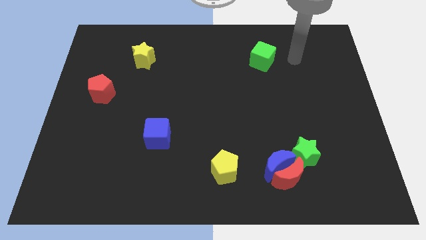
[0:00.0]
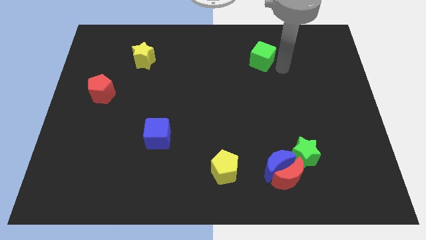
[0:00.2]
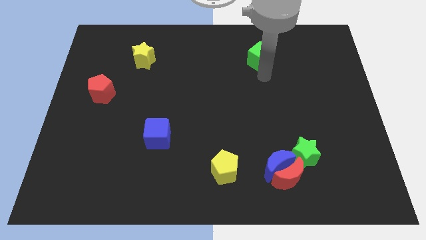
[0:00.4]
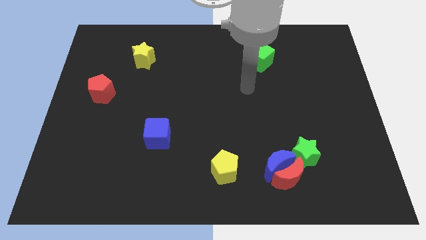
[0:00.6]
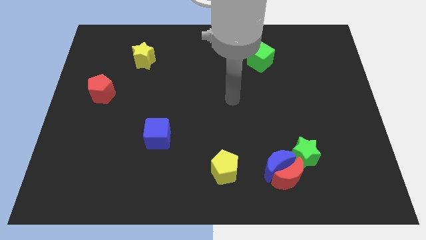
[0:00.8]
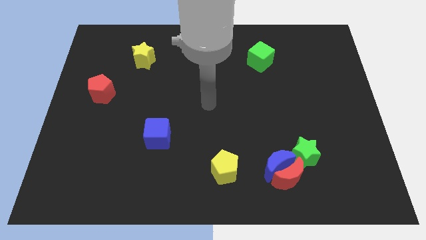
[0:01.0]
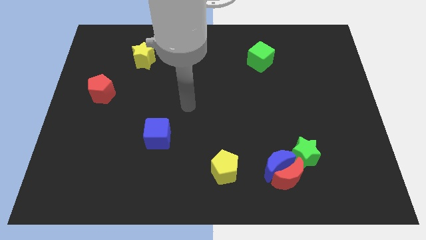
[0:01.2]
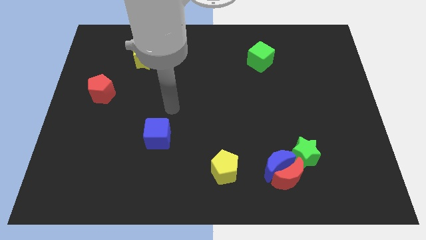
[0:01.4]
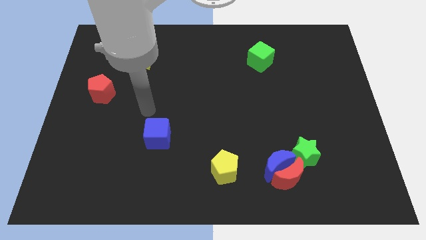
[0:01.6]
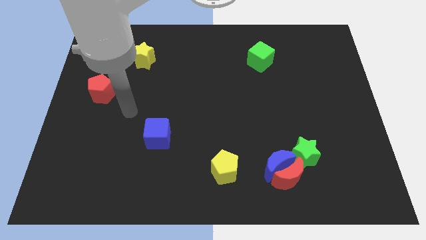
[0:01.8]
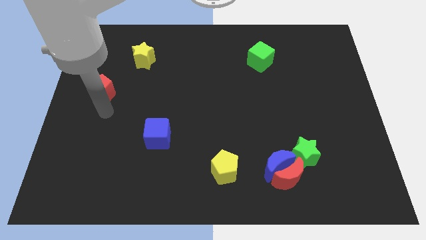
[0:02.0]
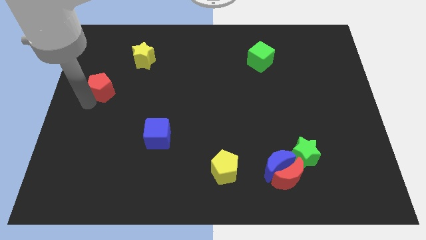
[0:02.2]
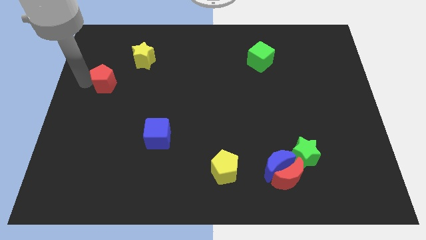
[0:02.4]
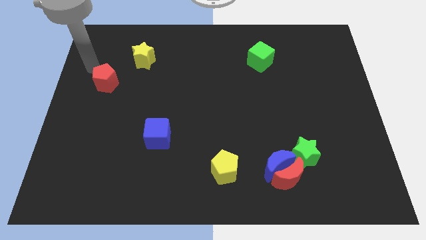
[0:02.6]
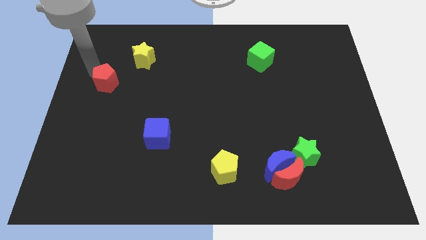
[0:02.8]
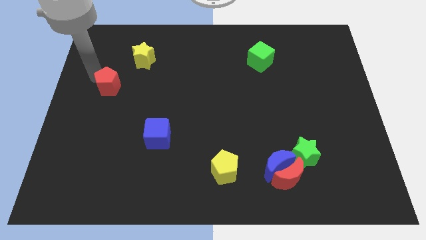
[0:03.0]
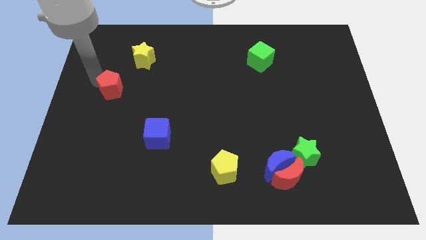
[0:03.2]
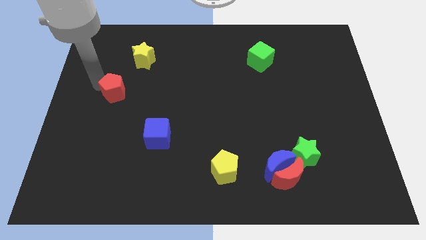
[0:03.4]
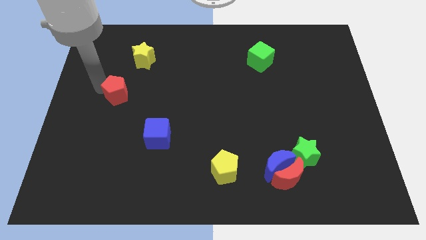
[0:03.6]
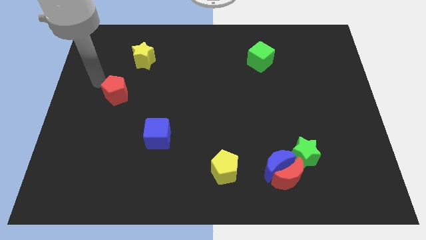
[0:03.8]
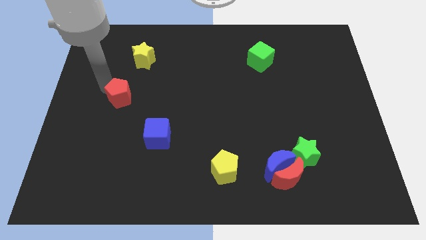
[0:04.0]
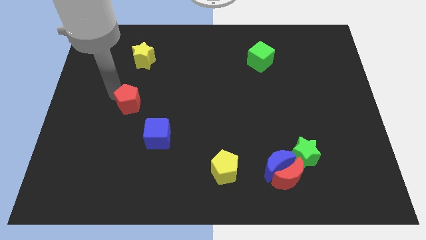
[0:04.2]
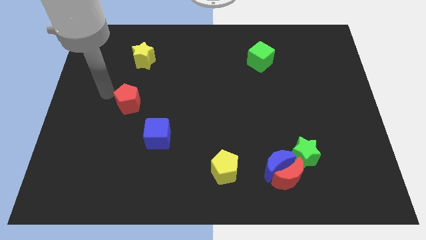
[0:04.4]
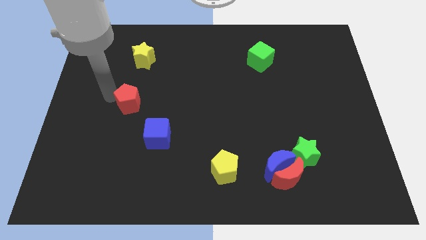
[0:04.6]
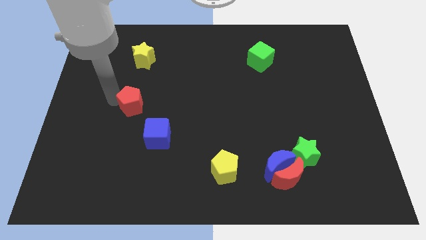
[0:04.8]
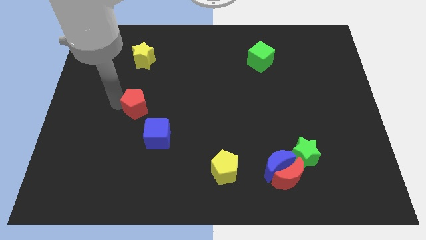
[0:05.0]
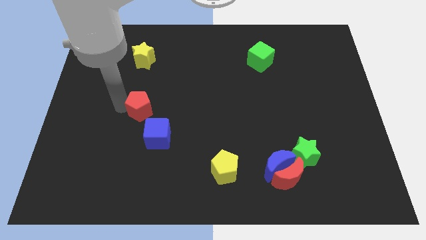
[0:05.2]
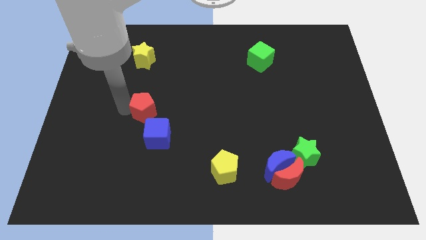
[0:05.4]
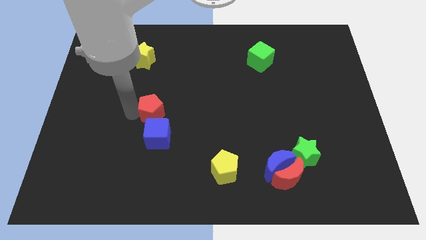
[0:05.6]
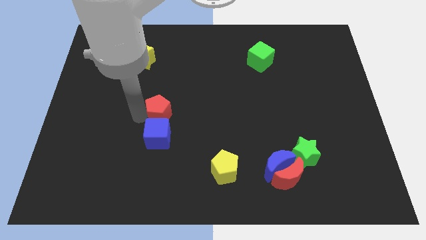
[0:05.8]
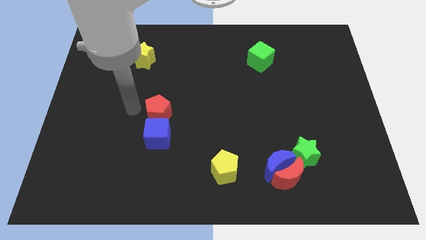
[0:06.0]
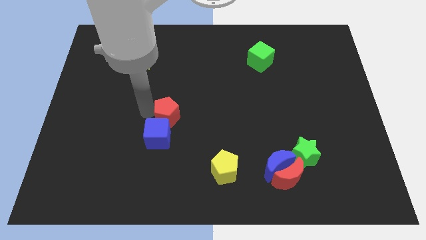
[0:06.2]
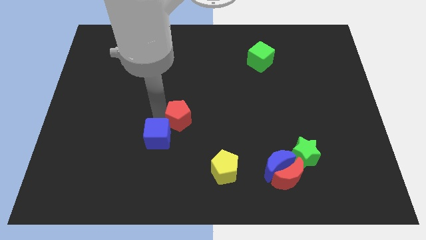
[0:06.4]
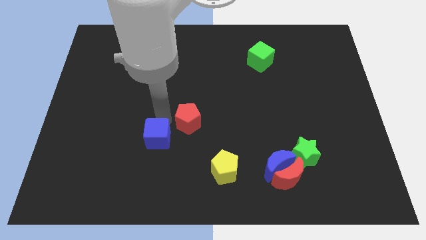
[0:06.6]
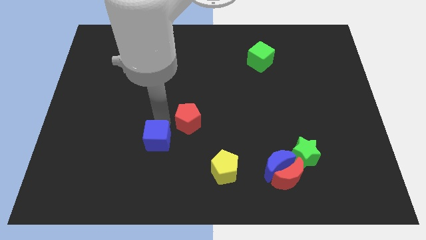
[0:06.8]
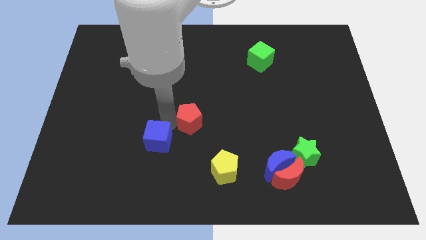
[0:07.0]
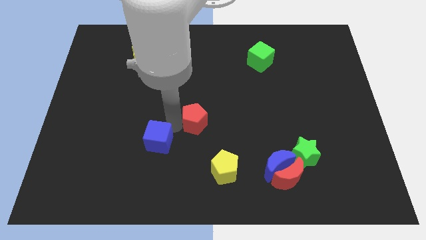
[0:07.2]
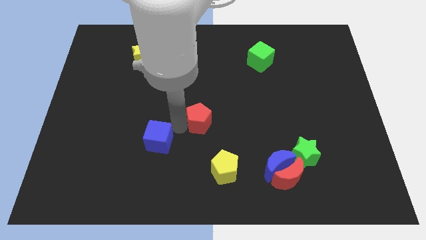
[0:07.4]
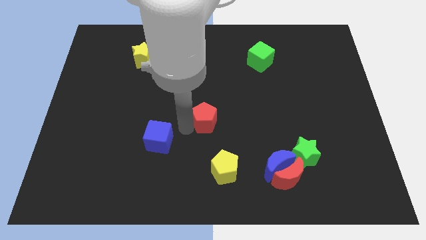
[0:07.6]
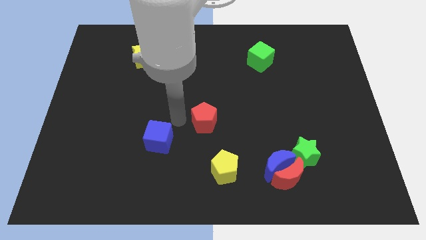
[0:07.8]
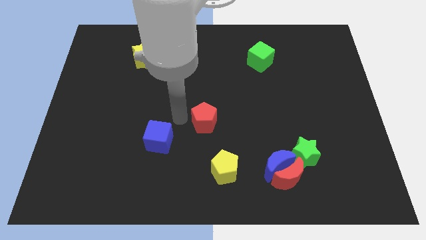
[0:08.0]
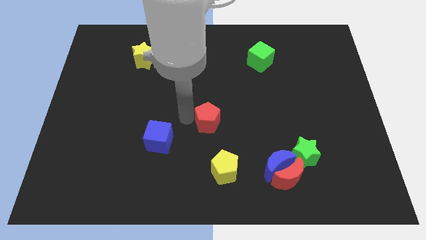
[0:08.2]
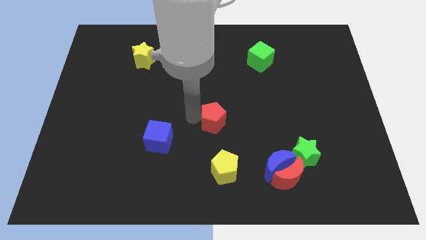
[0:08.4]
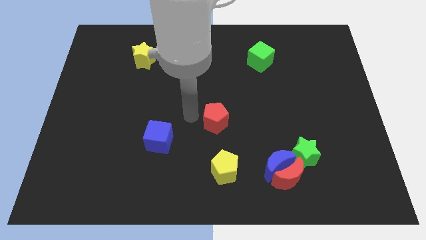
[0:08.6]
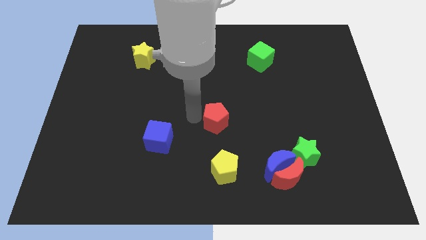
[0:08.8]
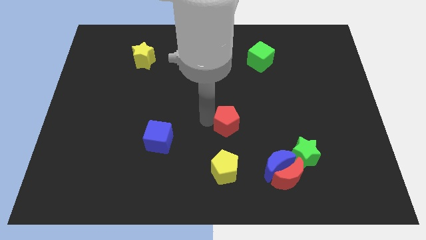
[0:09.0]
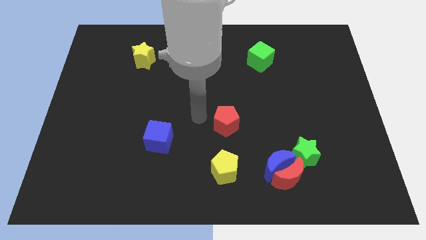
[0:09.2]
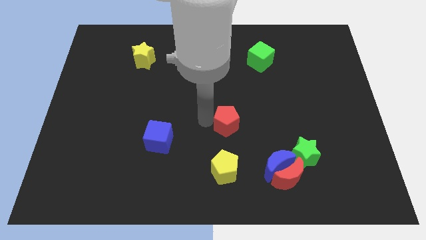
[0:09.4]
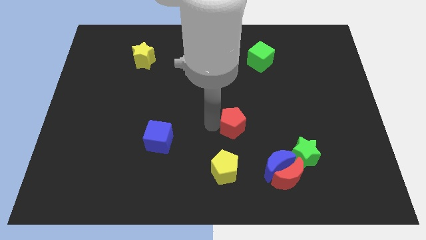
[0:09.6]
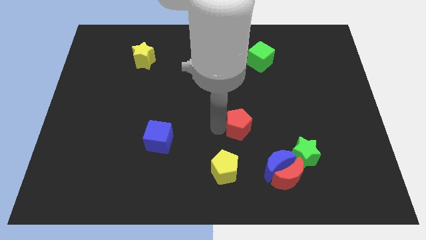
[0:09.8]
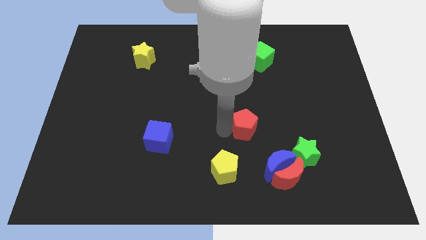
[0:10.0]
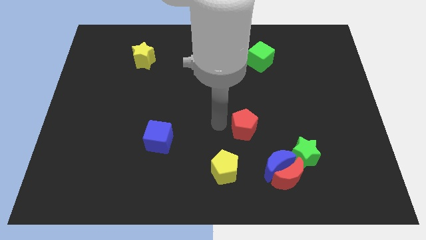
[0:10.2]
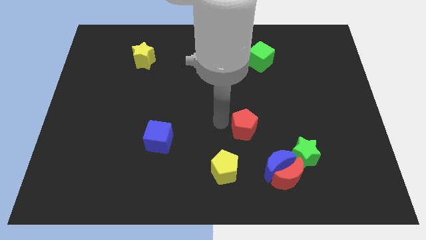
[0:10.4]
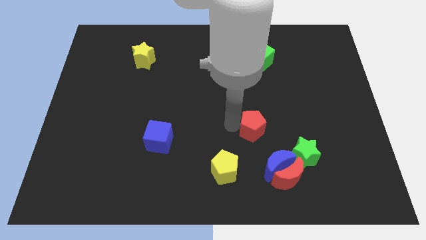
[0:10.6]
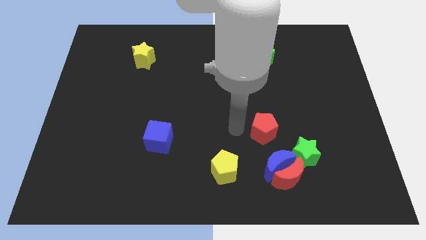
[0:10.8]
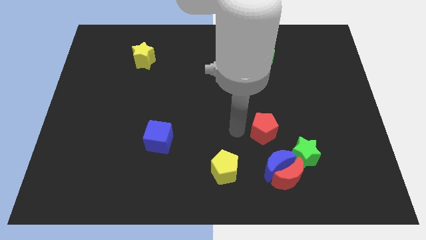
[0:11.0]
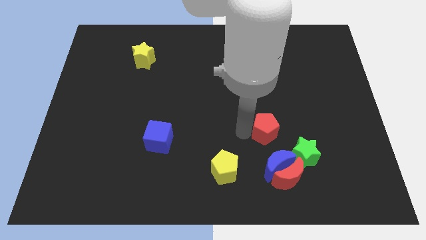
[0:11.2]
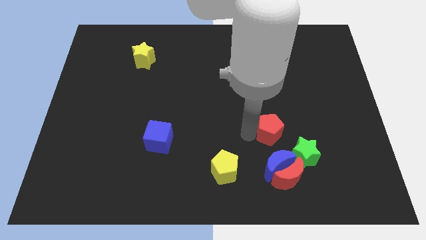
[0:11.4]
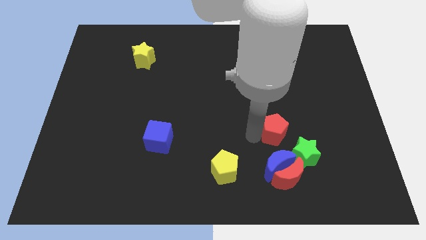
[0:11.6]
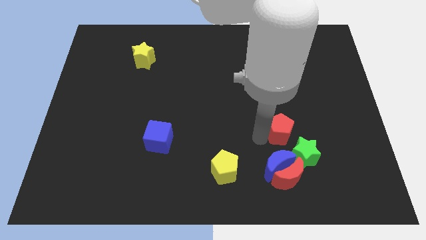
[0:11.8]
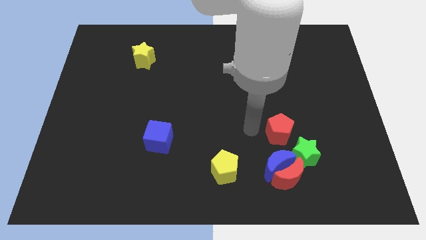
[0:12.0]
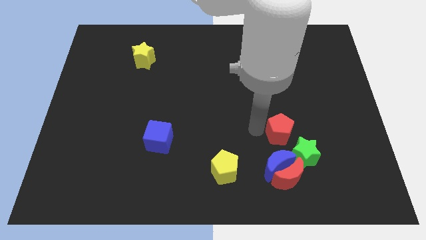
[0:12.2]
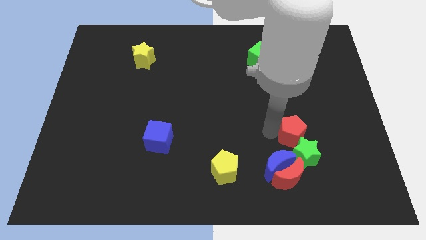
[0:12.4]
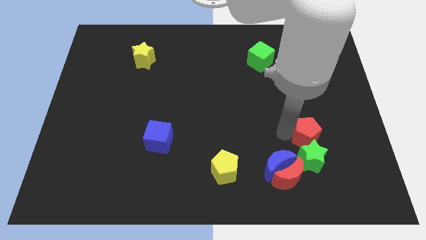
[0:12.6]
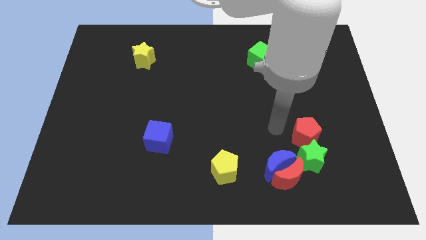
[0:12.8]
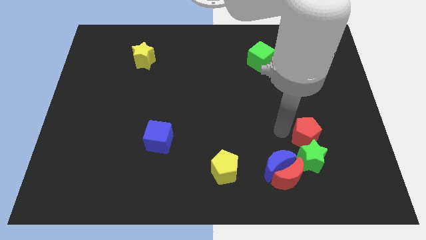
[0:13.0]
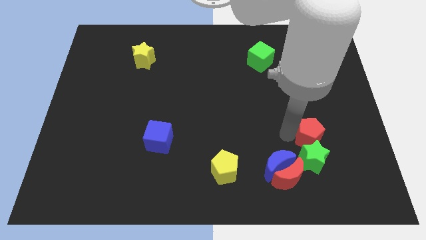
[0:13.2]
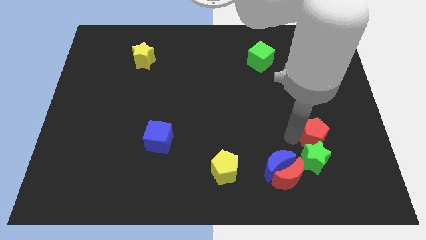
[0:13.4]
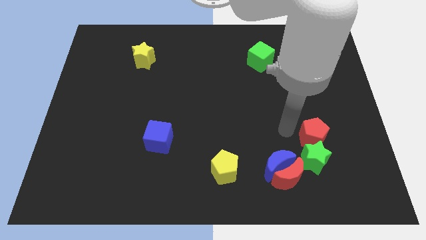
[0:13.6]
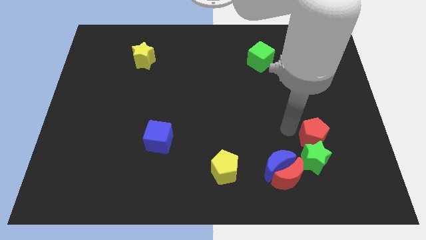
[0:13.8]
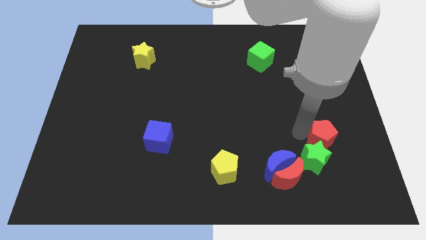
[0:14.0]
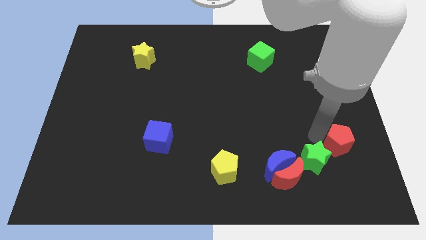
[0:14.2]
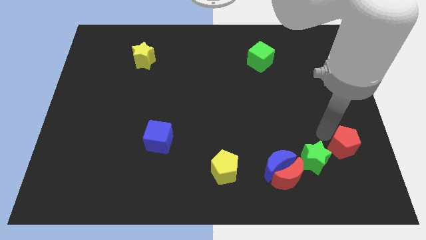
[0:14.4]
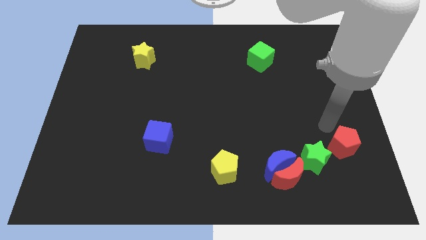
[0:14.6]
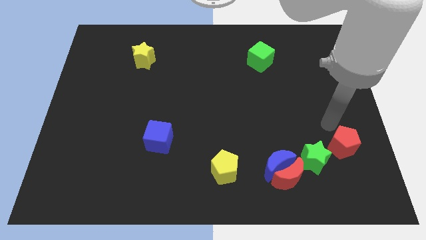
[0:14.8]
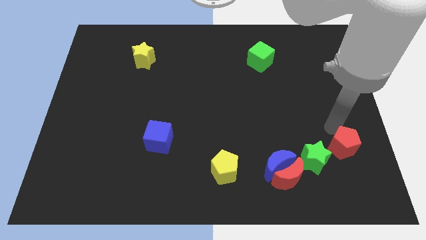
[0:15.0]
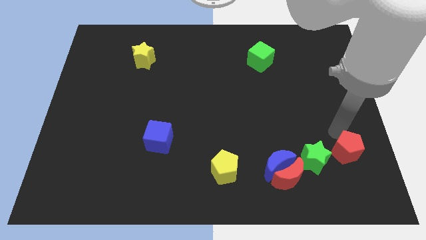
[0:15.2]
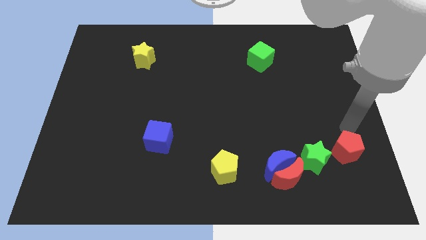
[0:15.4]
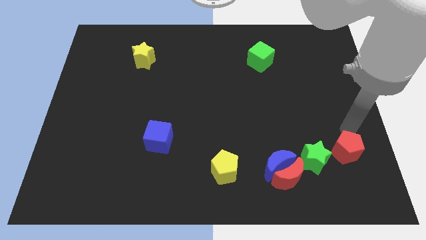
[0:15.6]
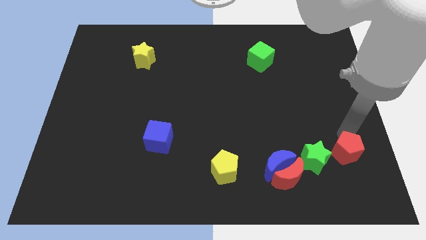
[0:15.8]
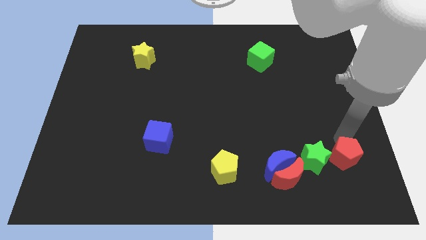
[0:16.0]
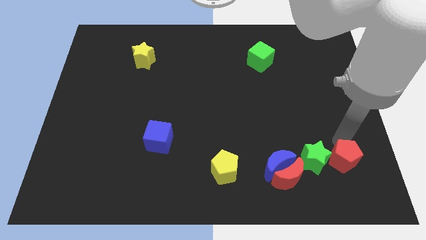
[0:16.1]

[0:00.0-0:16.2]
push the red pentagon just right of the red moon
